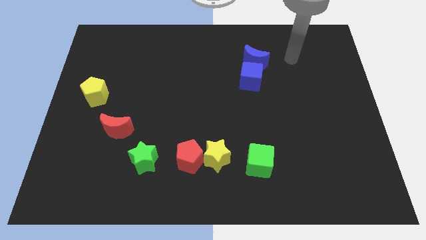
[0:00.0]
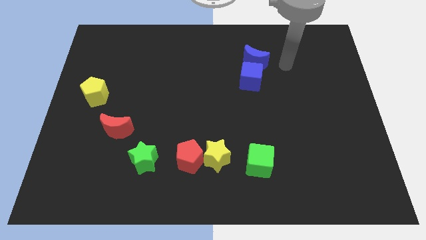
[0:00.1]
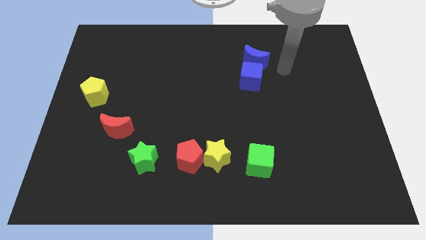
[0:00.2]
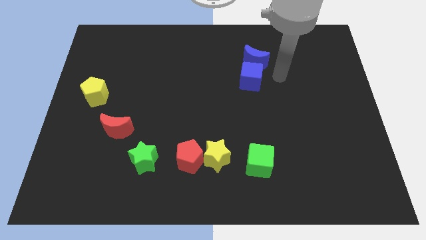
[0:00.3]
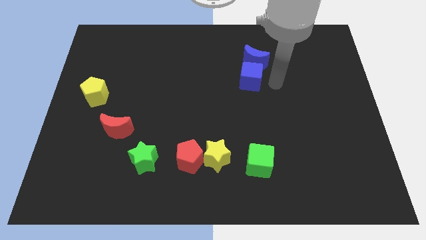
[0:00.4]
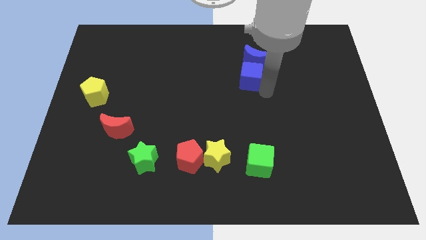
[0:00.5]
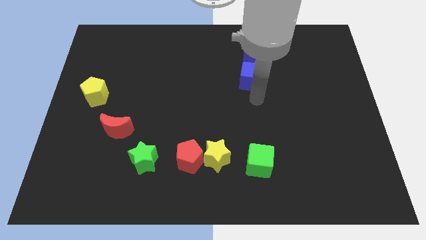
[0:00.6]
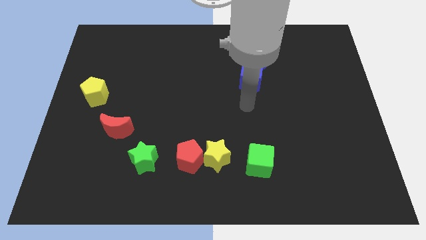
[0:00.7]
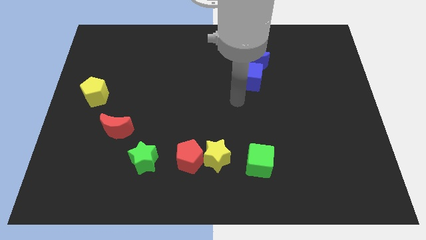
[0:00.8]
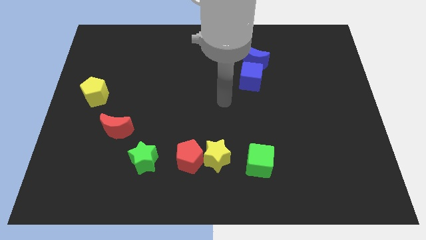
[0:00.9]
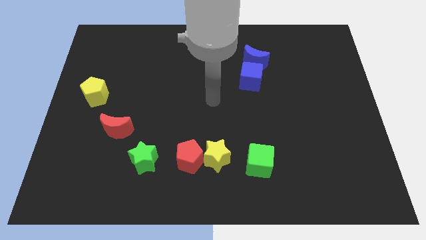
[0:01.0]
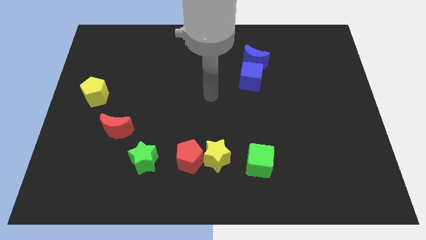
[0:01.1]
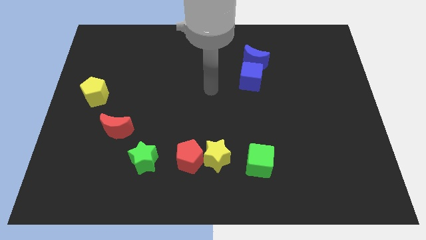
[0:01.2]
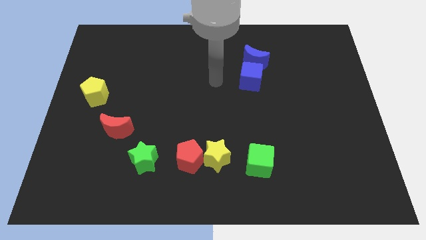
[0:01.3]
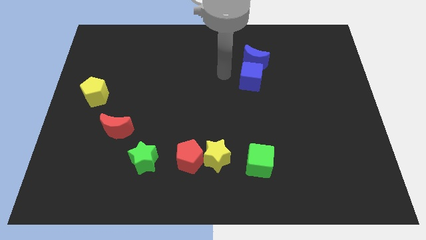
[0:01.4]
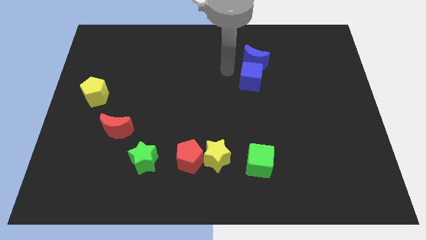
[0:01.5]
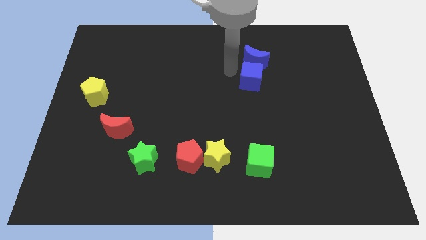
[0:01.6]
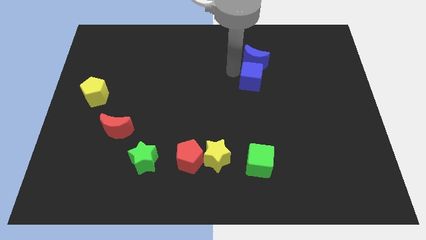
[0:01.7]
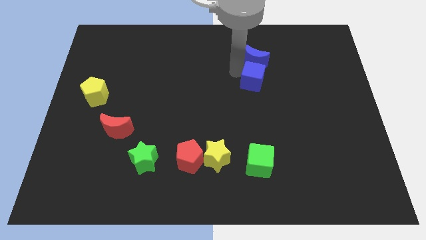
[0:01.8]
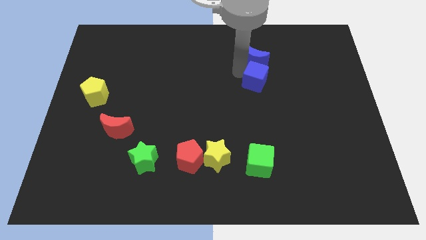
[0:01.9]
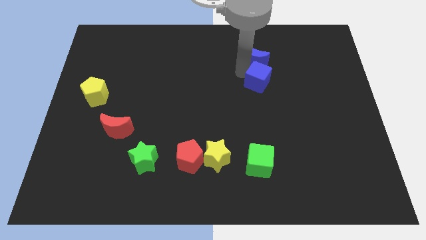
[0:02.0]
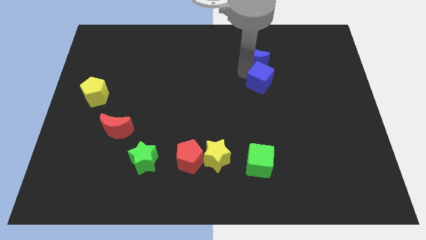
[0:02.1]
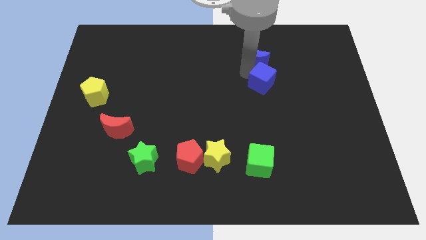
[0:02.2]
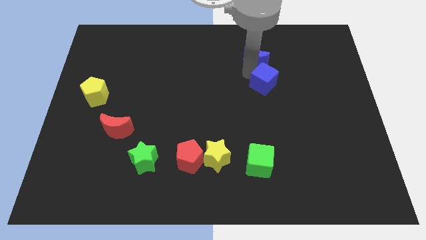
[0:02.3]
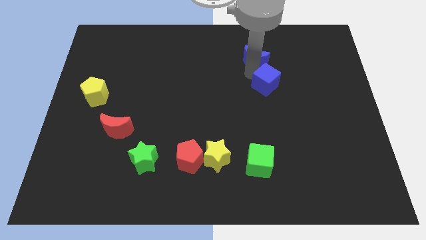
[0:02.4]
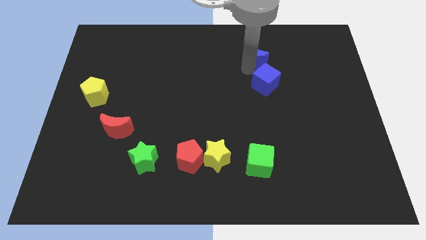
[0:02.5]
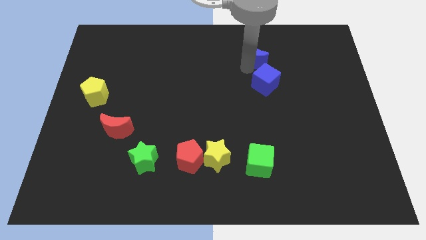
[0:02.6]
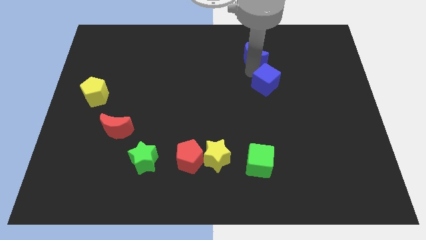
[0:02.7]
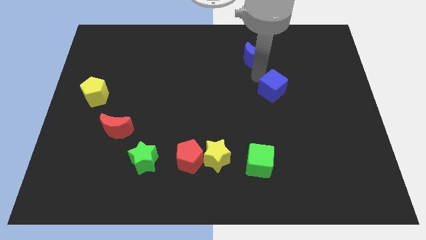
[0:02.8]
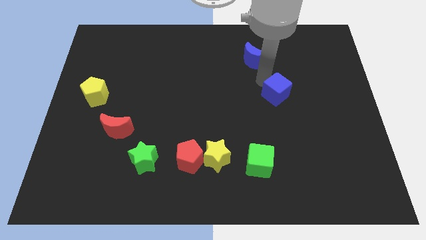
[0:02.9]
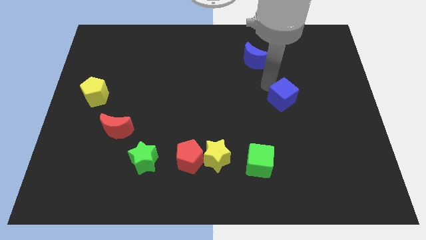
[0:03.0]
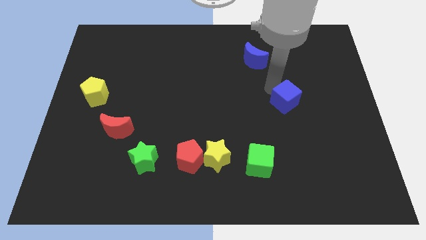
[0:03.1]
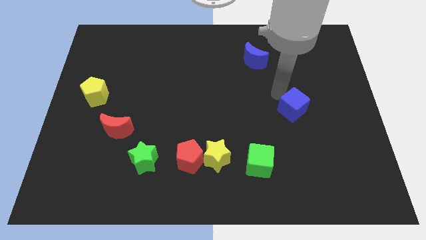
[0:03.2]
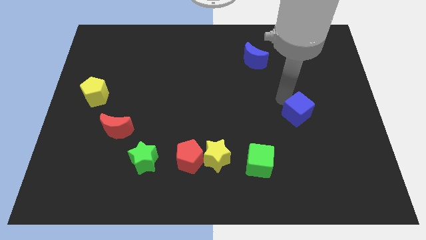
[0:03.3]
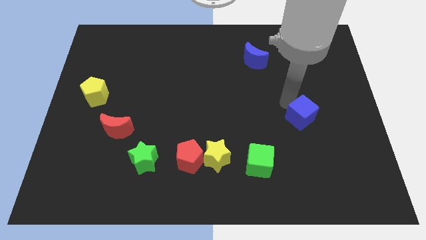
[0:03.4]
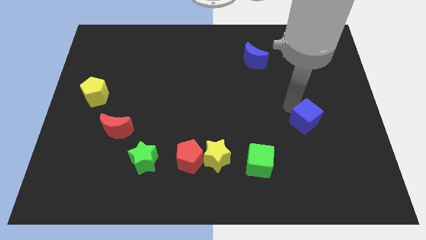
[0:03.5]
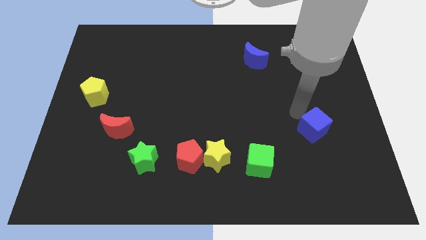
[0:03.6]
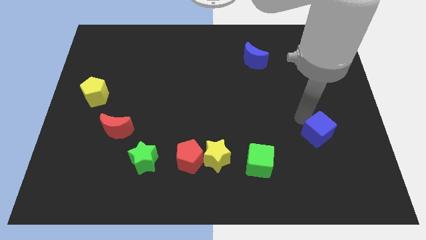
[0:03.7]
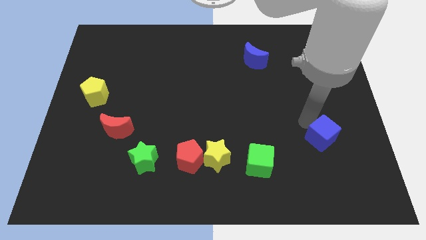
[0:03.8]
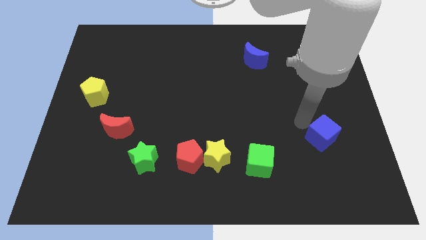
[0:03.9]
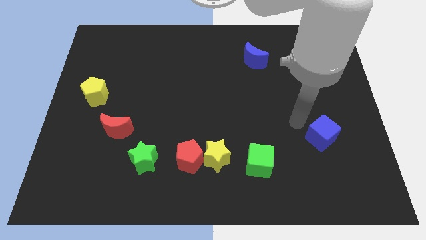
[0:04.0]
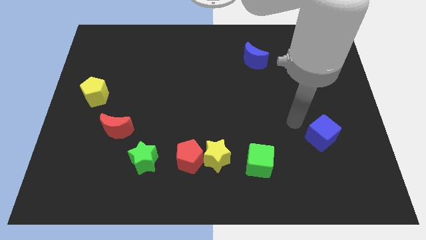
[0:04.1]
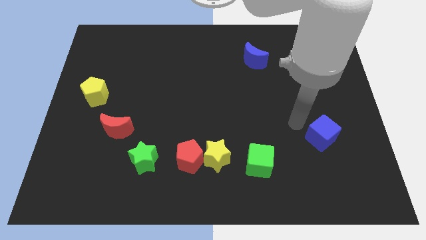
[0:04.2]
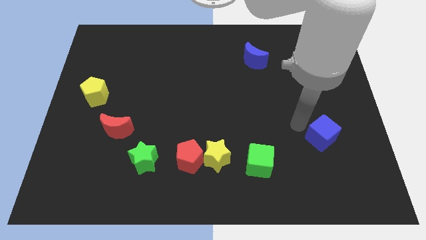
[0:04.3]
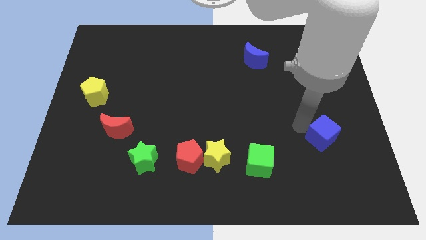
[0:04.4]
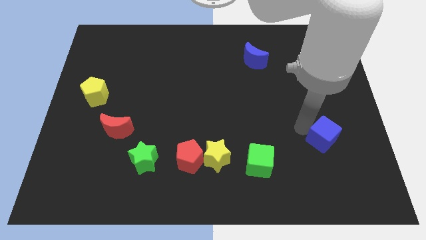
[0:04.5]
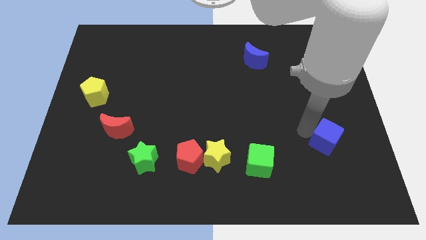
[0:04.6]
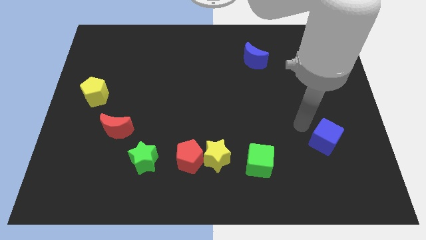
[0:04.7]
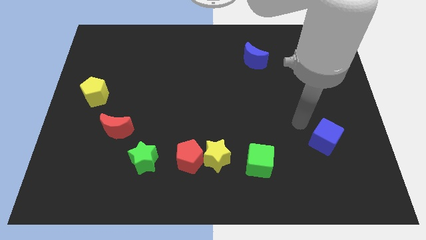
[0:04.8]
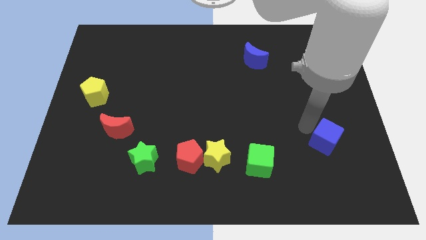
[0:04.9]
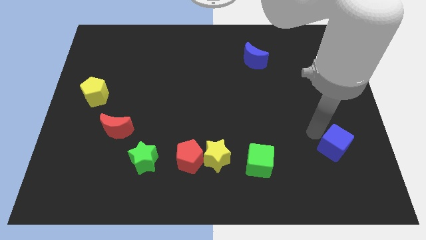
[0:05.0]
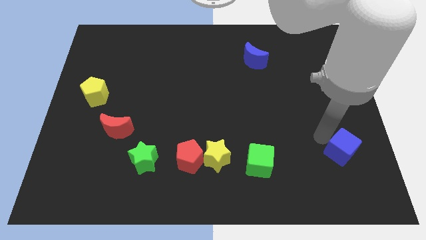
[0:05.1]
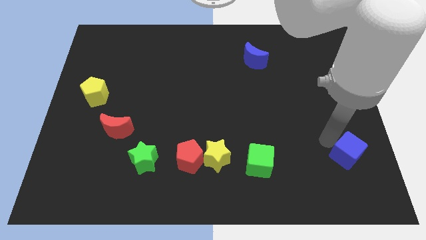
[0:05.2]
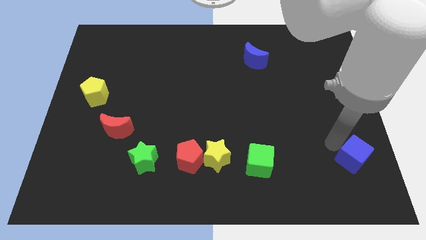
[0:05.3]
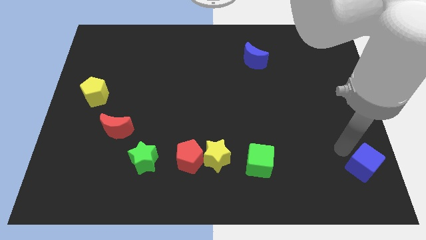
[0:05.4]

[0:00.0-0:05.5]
move the blue cube to the bottom right corner

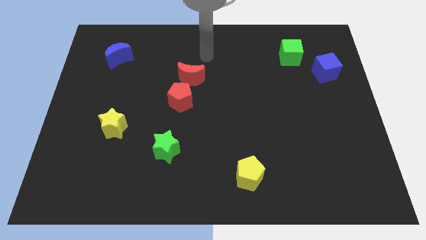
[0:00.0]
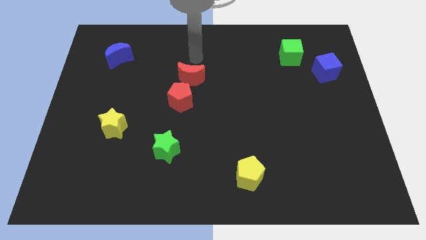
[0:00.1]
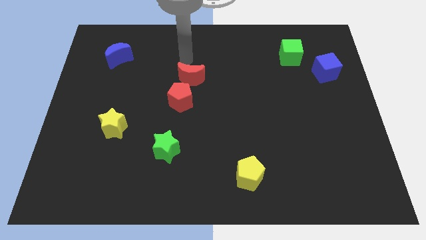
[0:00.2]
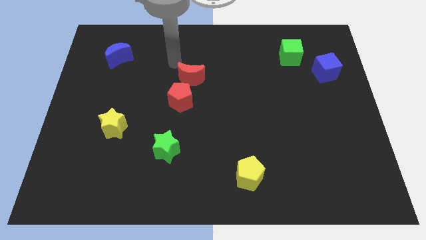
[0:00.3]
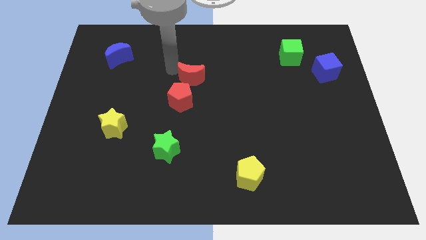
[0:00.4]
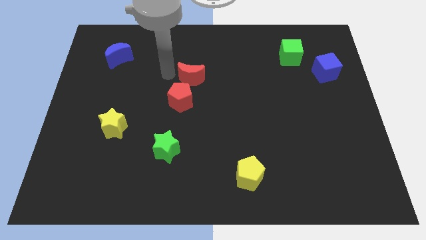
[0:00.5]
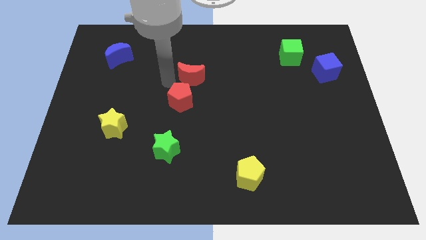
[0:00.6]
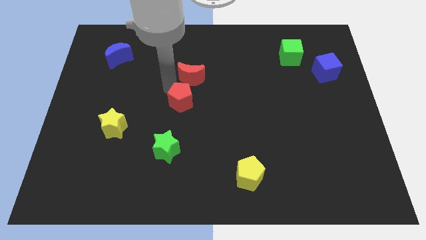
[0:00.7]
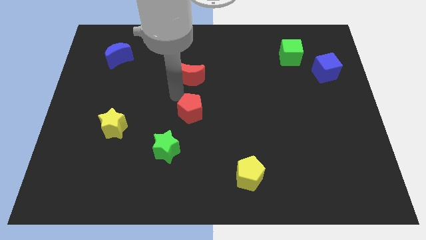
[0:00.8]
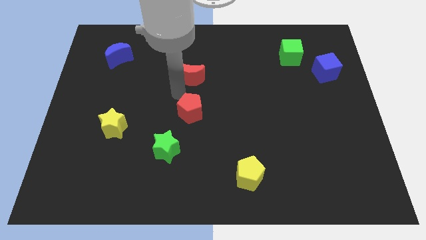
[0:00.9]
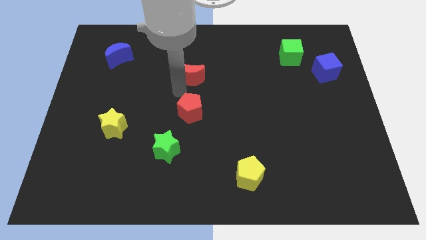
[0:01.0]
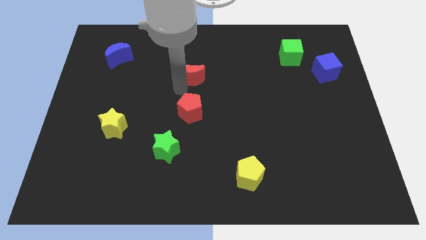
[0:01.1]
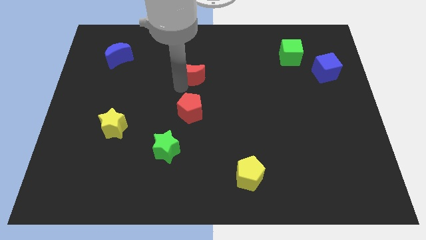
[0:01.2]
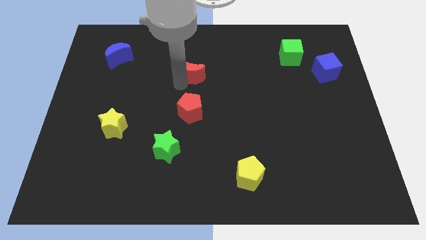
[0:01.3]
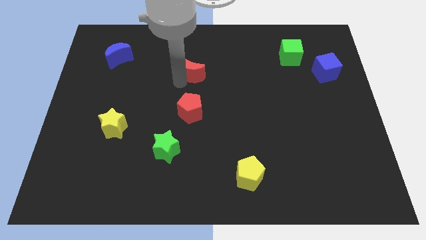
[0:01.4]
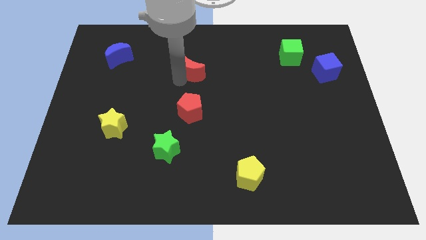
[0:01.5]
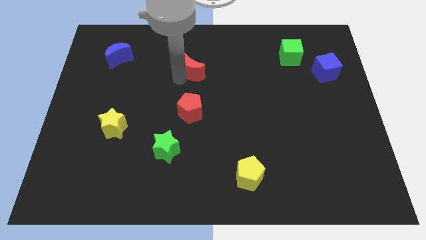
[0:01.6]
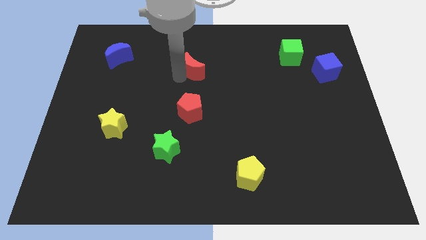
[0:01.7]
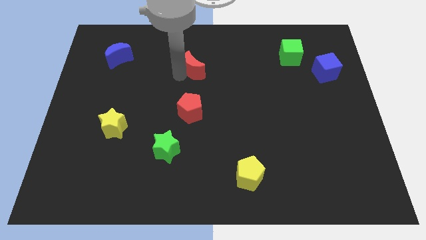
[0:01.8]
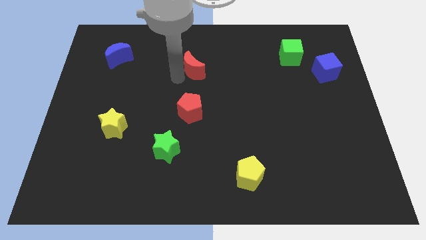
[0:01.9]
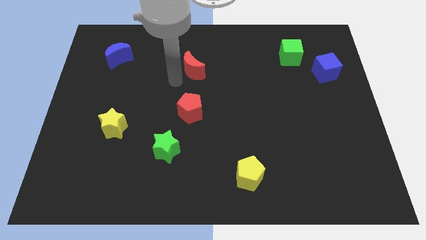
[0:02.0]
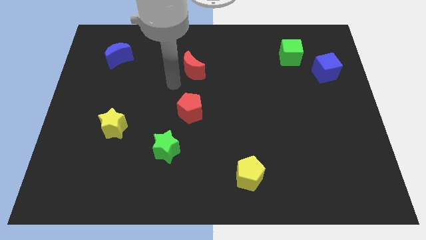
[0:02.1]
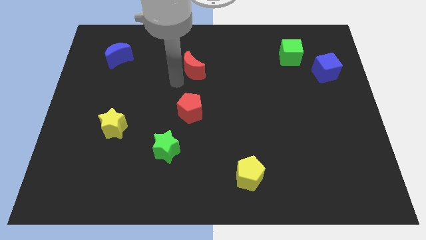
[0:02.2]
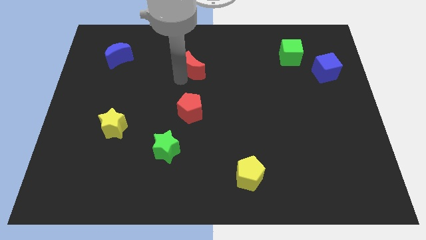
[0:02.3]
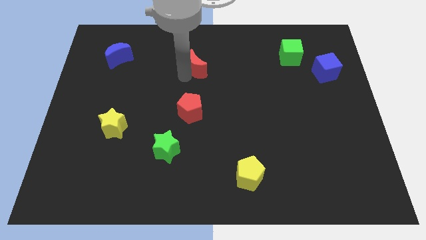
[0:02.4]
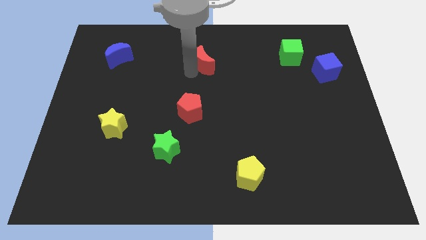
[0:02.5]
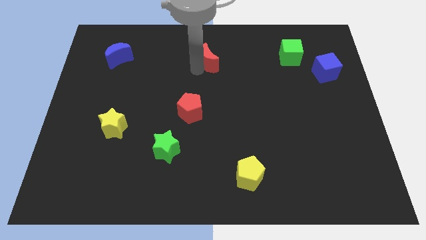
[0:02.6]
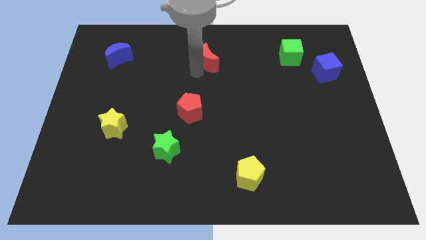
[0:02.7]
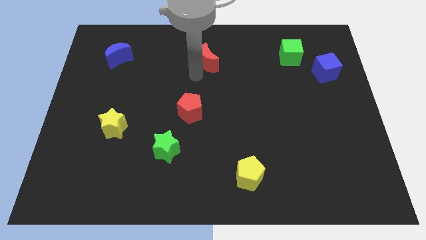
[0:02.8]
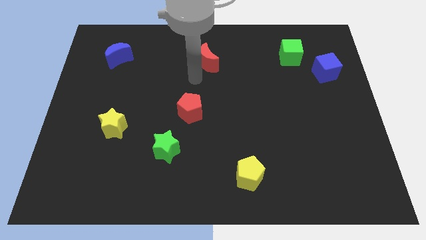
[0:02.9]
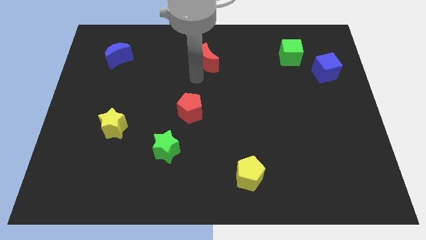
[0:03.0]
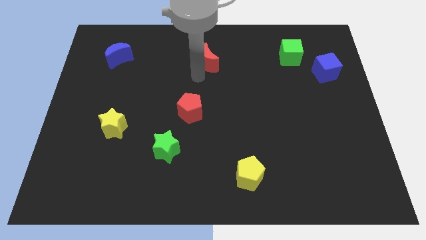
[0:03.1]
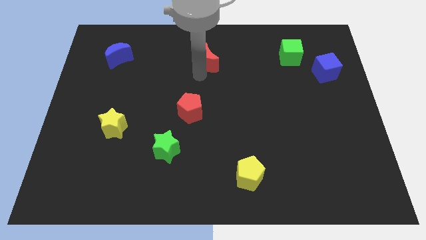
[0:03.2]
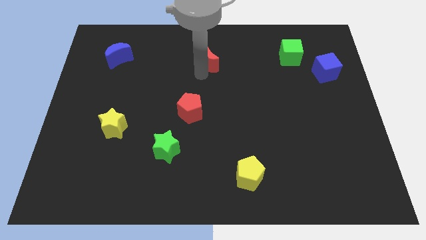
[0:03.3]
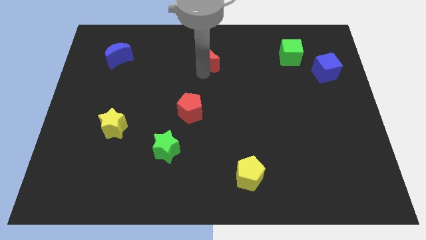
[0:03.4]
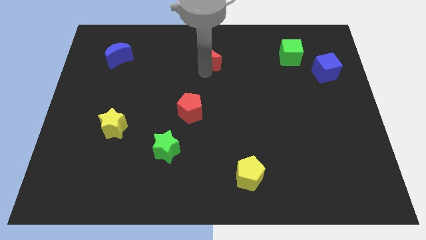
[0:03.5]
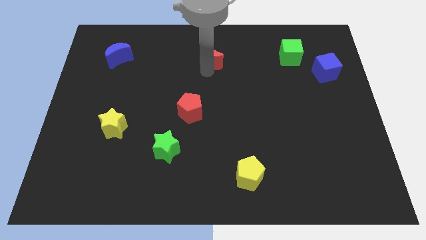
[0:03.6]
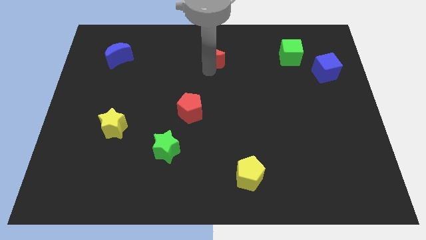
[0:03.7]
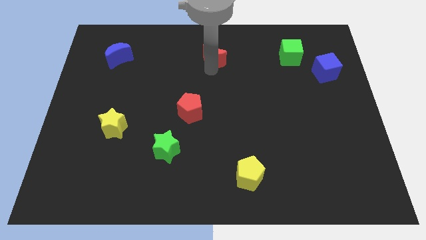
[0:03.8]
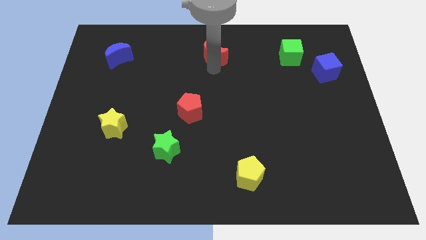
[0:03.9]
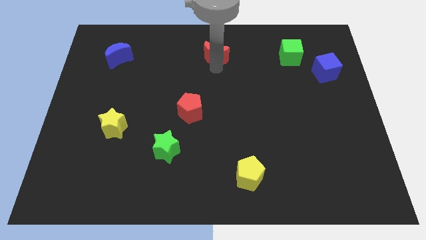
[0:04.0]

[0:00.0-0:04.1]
move the red moon to the towards your base
